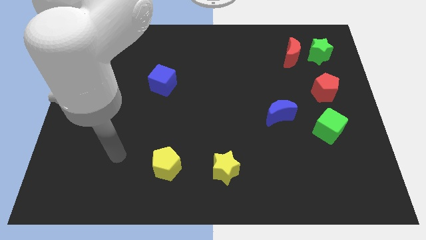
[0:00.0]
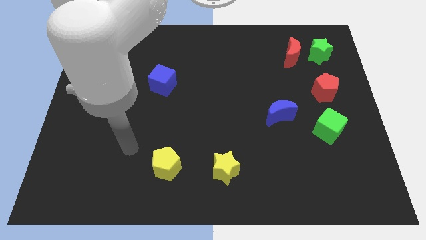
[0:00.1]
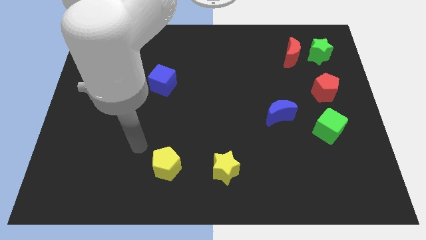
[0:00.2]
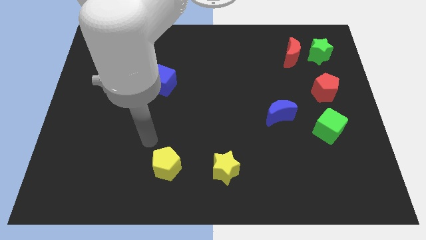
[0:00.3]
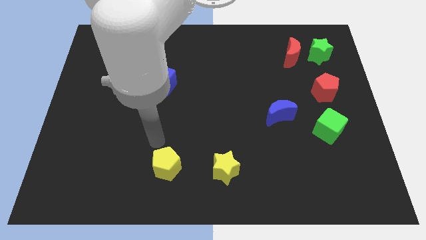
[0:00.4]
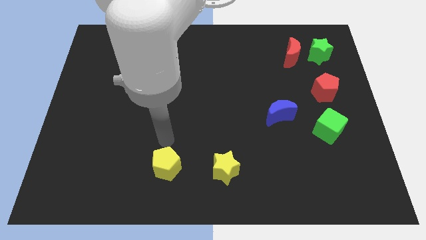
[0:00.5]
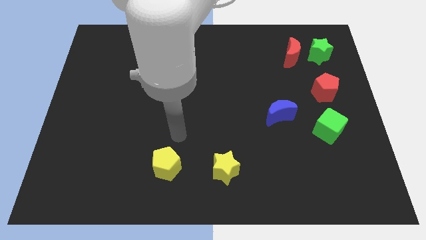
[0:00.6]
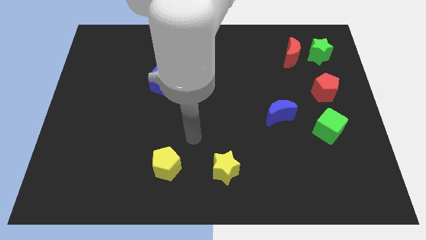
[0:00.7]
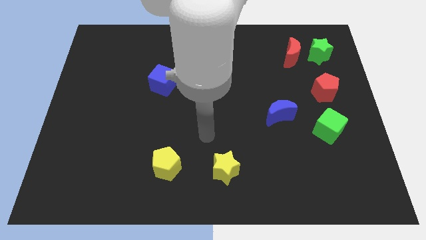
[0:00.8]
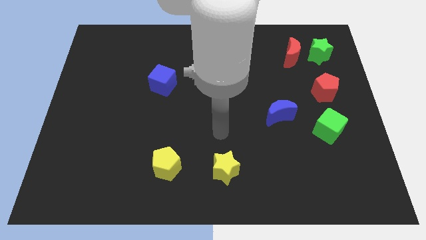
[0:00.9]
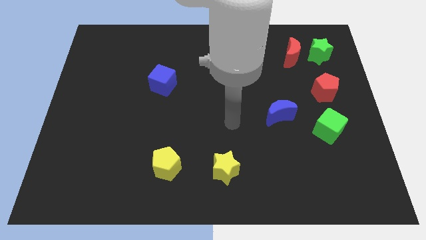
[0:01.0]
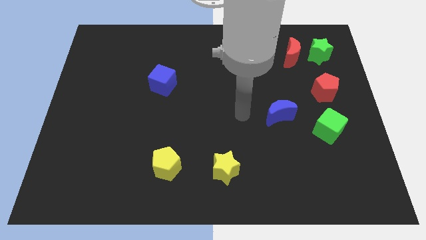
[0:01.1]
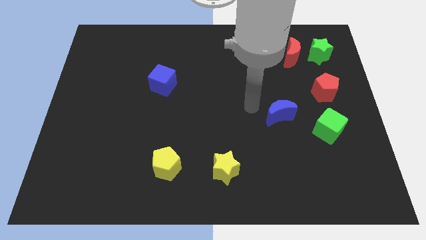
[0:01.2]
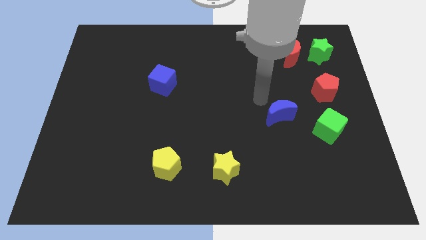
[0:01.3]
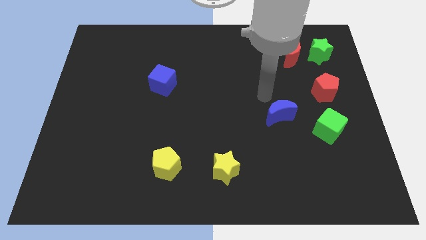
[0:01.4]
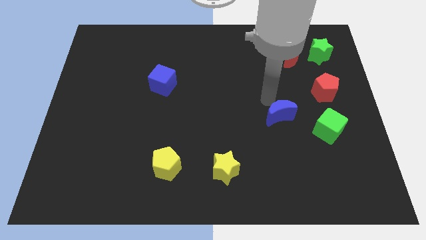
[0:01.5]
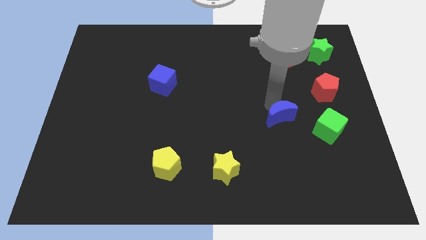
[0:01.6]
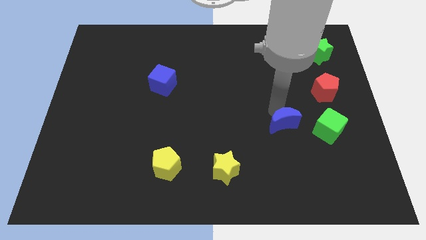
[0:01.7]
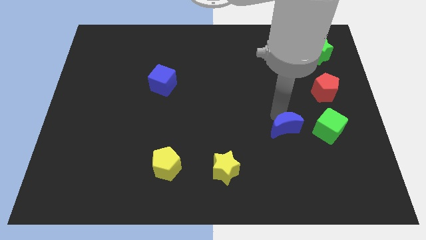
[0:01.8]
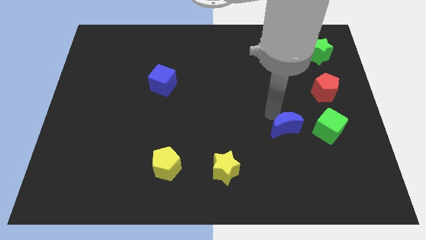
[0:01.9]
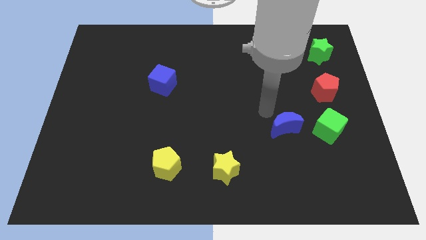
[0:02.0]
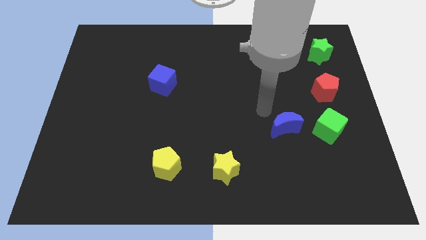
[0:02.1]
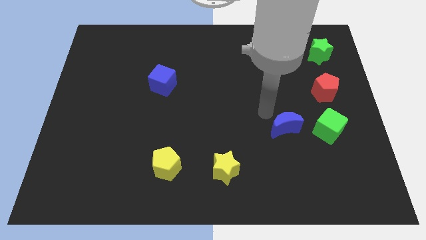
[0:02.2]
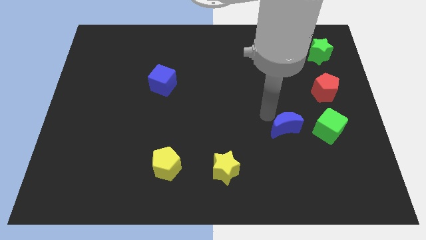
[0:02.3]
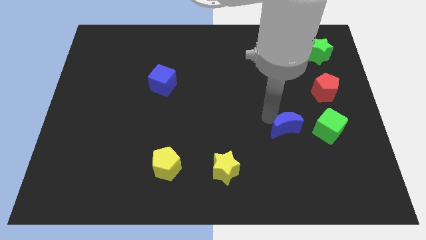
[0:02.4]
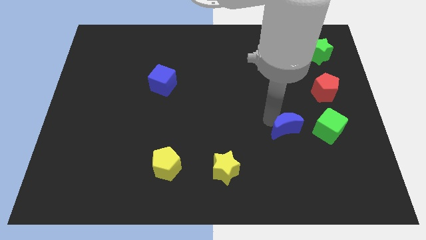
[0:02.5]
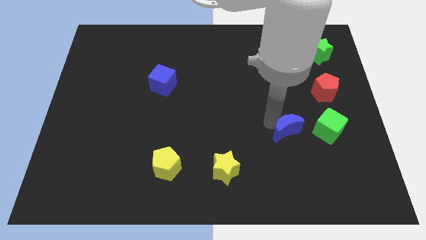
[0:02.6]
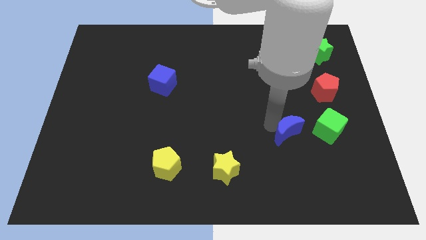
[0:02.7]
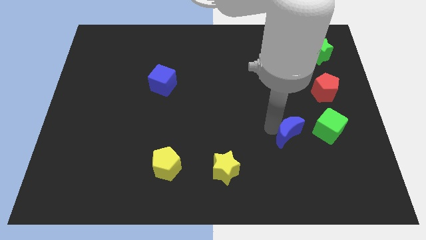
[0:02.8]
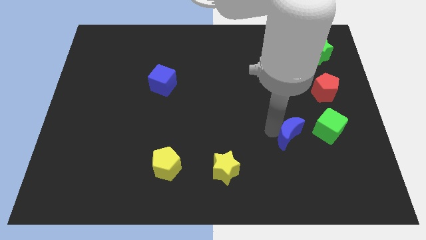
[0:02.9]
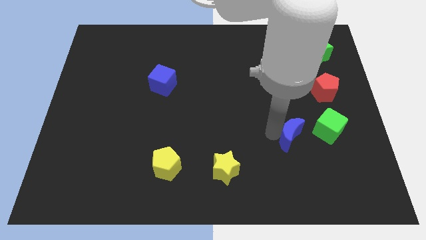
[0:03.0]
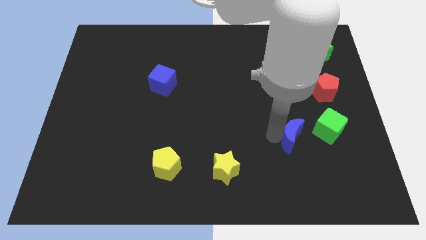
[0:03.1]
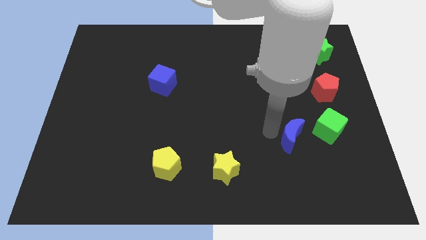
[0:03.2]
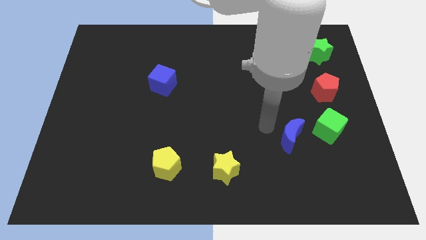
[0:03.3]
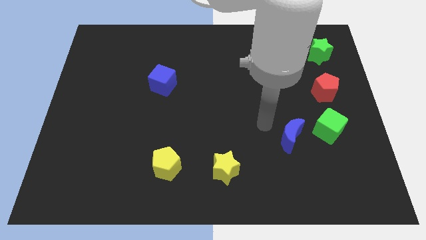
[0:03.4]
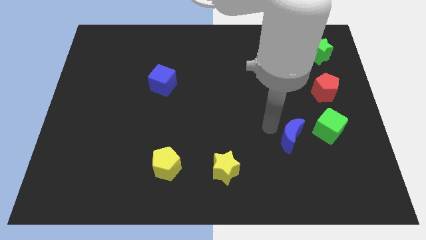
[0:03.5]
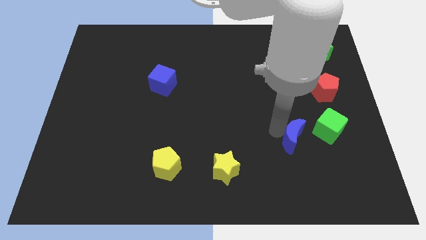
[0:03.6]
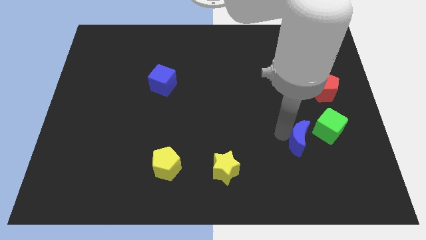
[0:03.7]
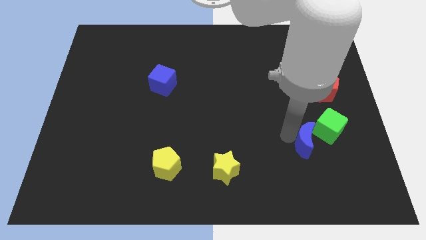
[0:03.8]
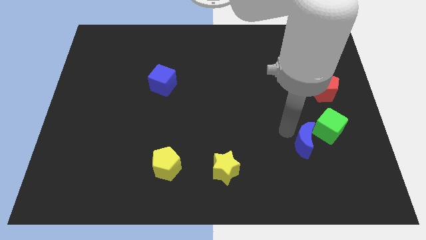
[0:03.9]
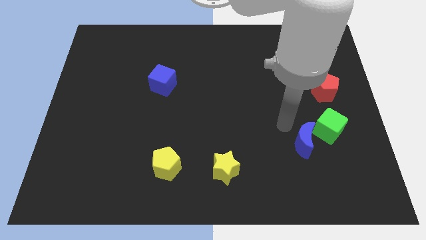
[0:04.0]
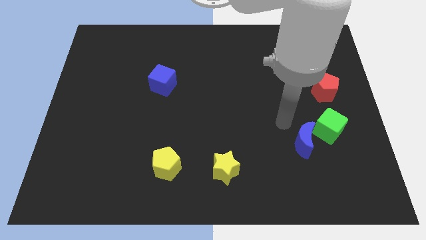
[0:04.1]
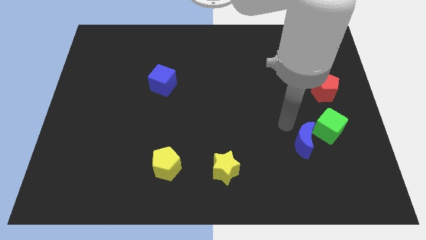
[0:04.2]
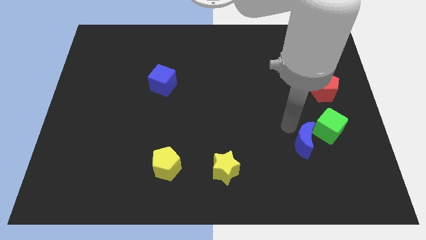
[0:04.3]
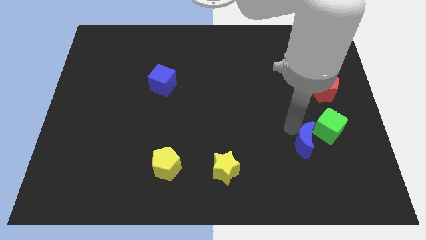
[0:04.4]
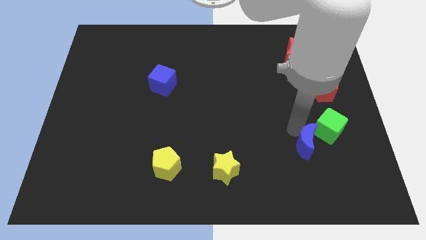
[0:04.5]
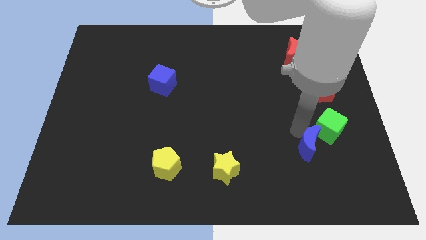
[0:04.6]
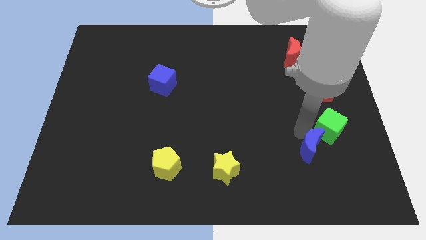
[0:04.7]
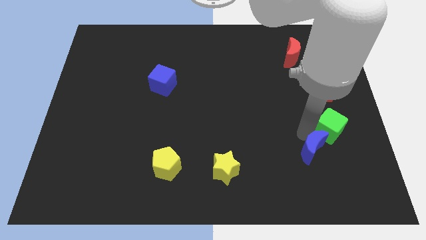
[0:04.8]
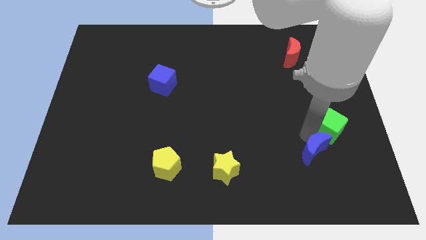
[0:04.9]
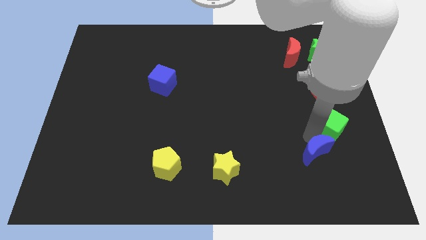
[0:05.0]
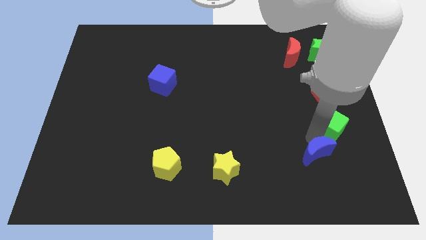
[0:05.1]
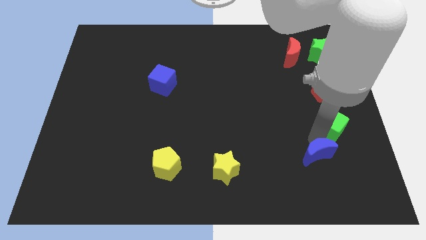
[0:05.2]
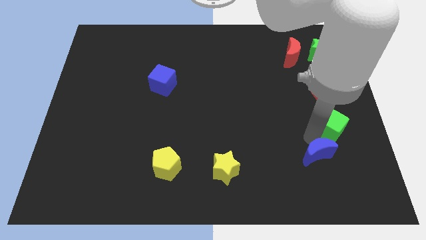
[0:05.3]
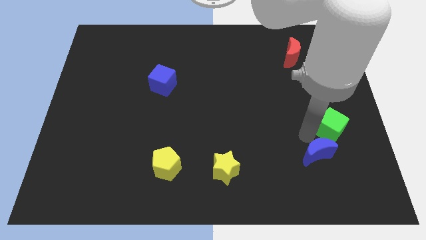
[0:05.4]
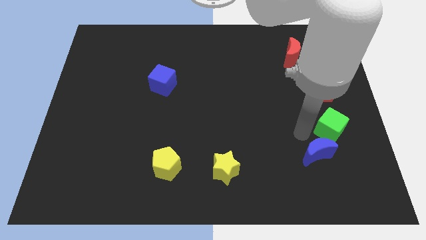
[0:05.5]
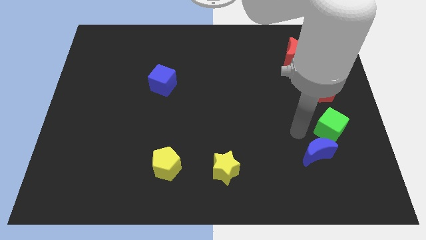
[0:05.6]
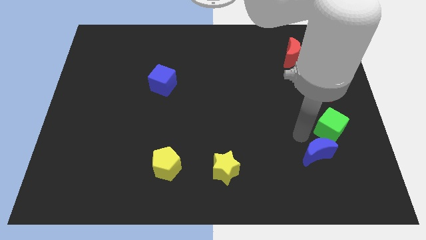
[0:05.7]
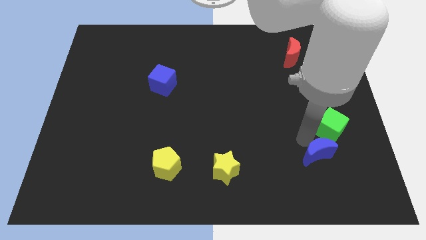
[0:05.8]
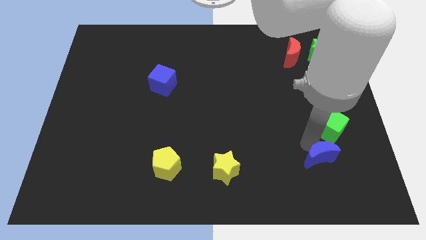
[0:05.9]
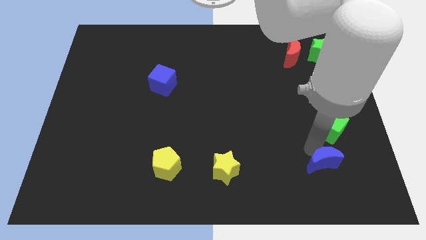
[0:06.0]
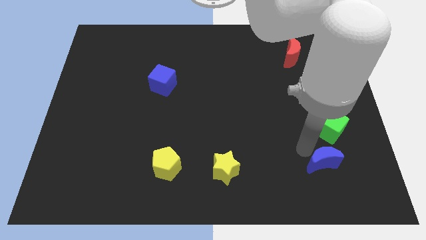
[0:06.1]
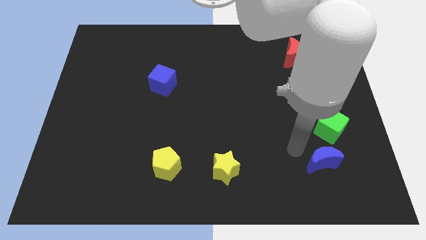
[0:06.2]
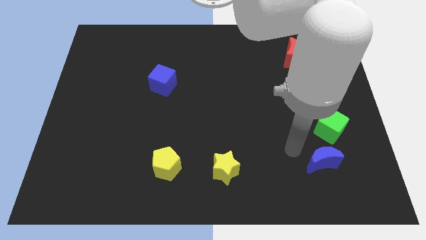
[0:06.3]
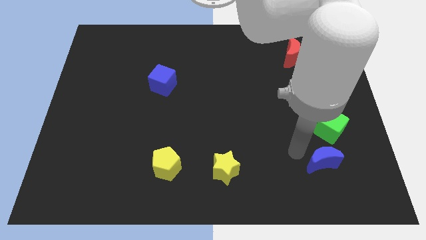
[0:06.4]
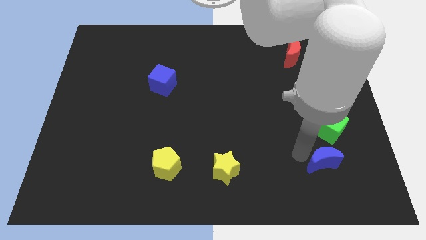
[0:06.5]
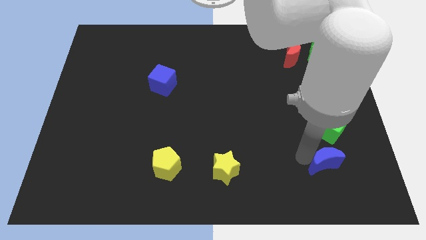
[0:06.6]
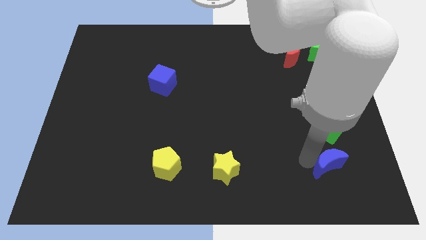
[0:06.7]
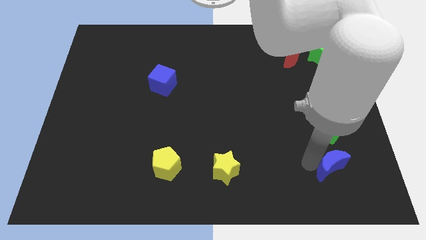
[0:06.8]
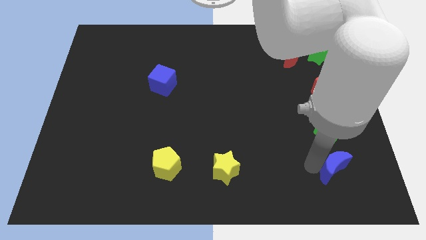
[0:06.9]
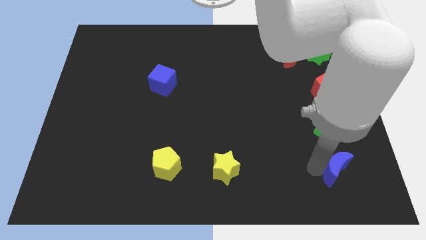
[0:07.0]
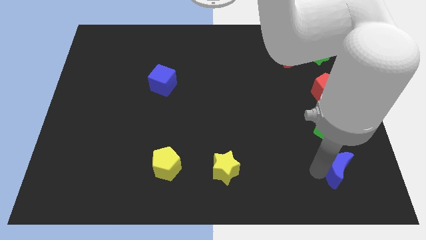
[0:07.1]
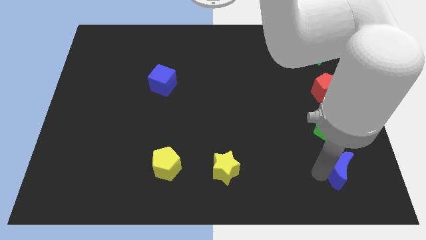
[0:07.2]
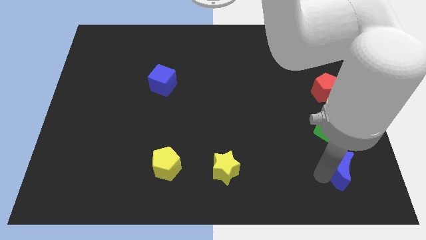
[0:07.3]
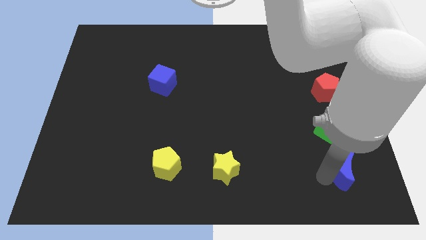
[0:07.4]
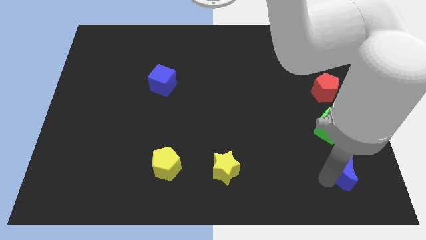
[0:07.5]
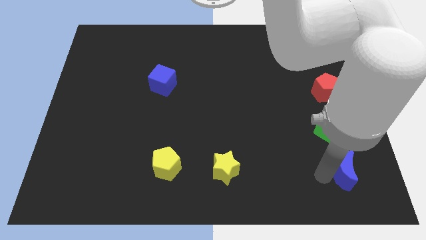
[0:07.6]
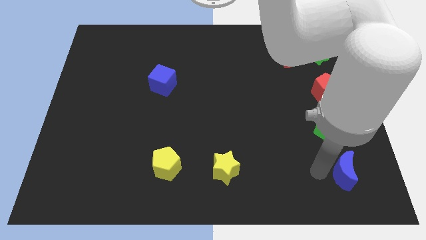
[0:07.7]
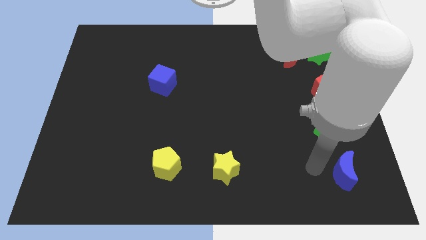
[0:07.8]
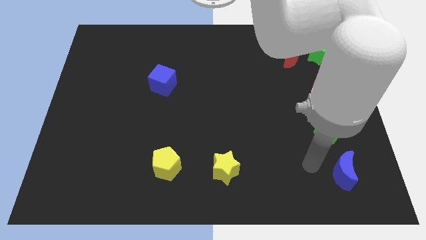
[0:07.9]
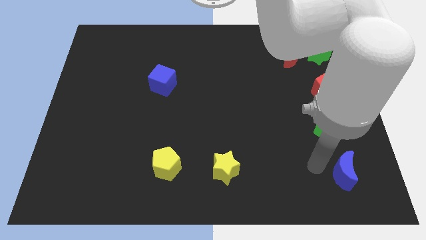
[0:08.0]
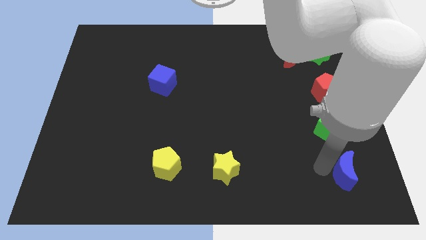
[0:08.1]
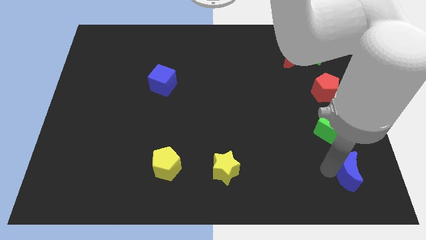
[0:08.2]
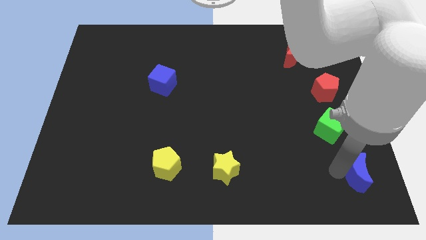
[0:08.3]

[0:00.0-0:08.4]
move the blue moon to the lower right corner
